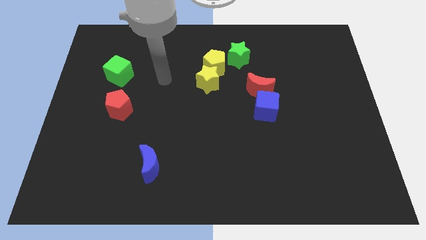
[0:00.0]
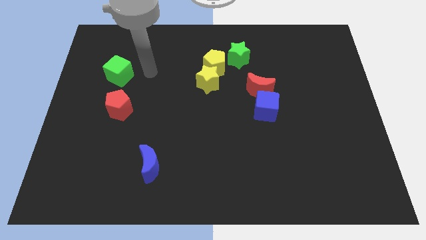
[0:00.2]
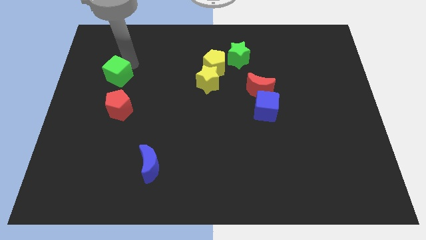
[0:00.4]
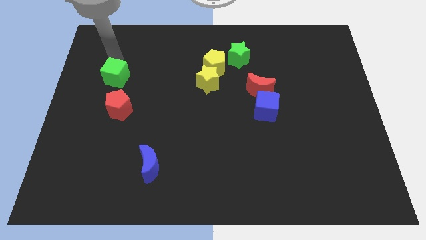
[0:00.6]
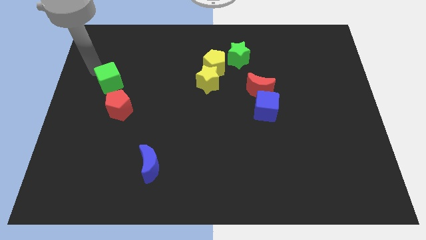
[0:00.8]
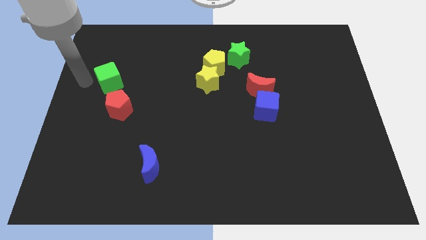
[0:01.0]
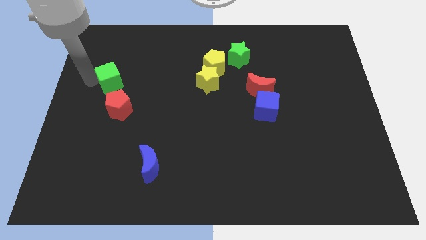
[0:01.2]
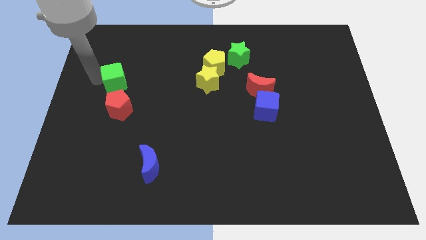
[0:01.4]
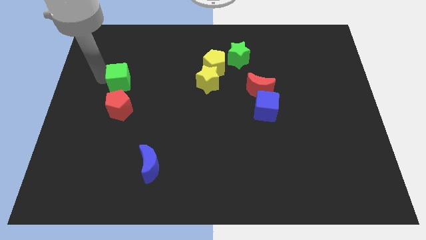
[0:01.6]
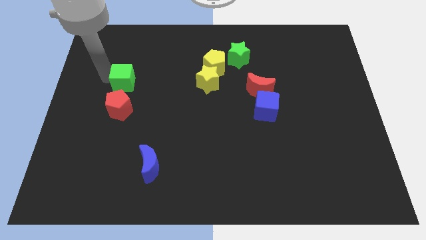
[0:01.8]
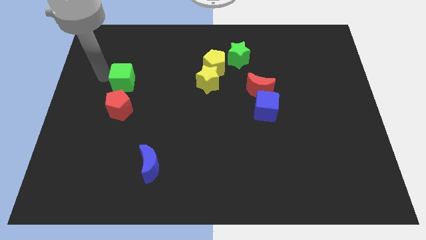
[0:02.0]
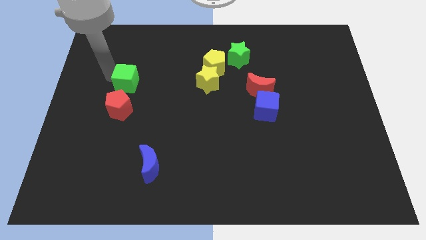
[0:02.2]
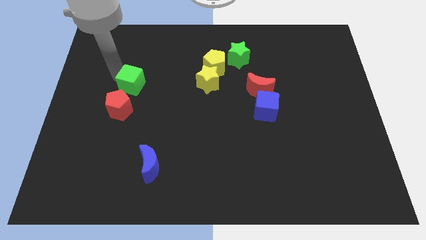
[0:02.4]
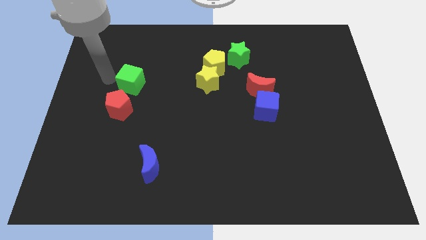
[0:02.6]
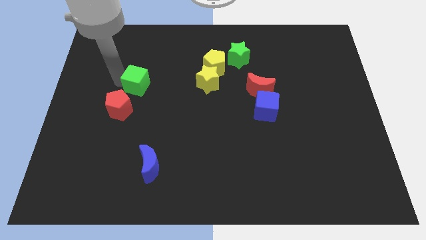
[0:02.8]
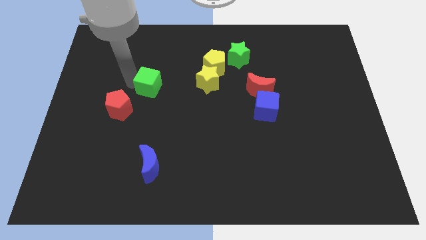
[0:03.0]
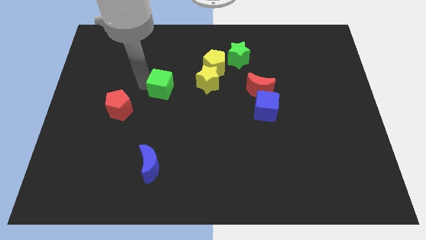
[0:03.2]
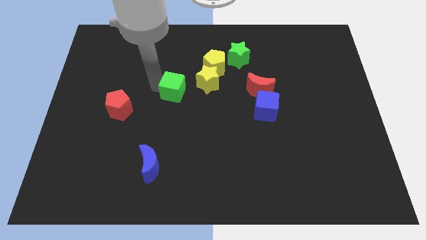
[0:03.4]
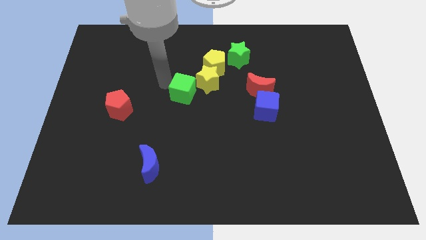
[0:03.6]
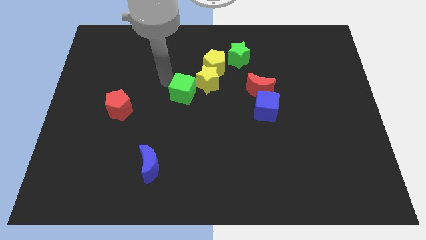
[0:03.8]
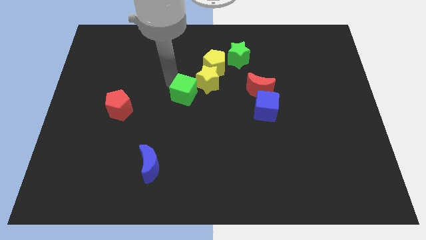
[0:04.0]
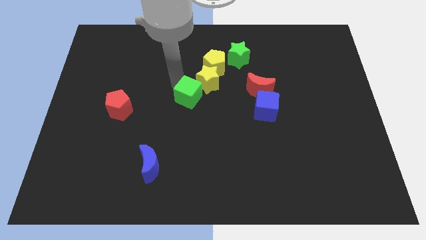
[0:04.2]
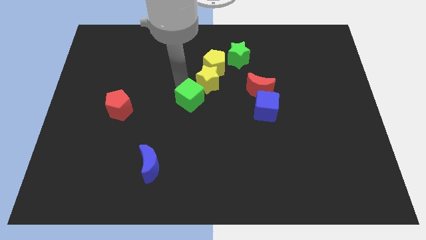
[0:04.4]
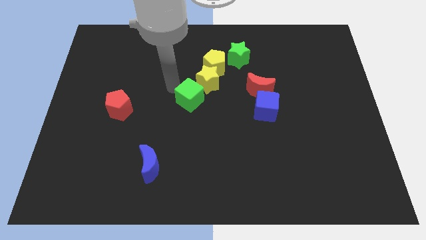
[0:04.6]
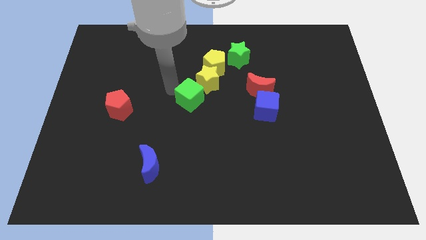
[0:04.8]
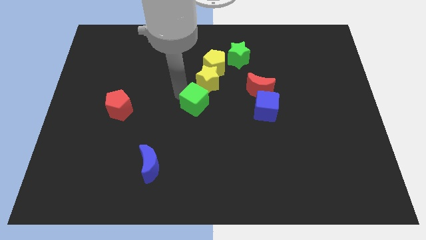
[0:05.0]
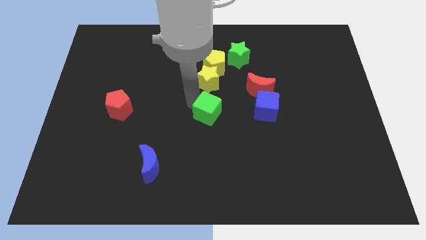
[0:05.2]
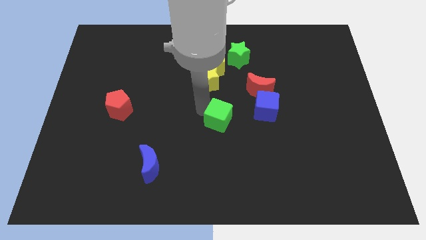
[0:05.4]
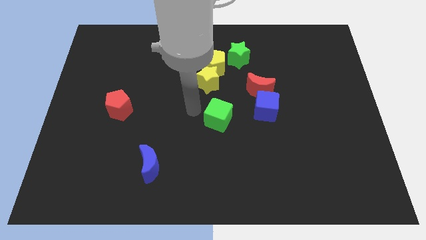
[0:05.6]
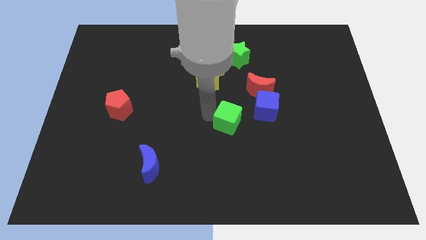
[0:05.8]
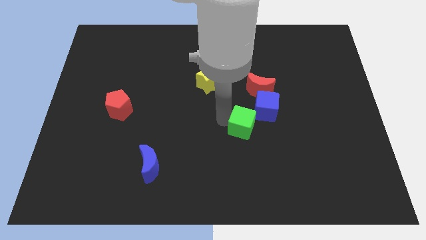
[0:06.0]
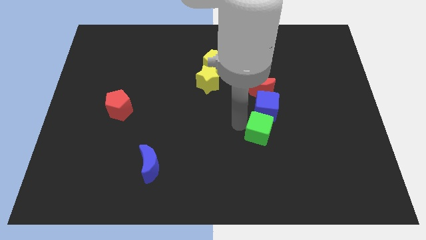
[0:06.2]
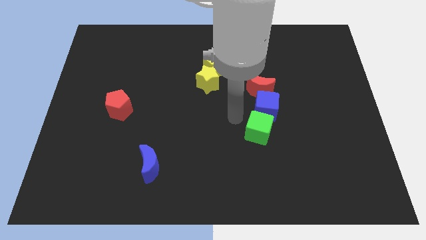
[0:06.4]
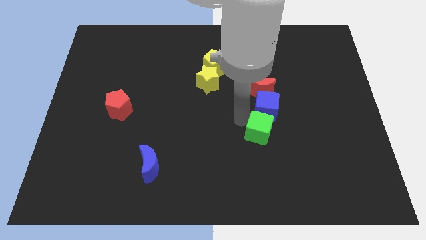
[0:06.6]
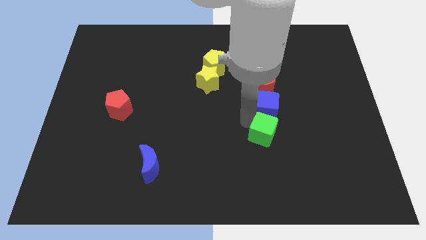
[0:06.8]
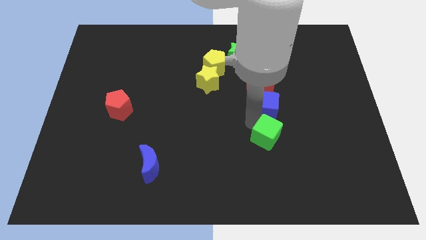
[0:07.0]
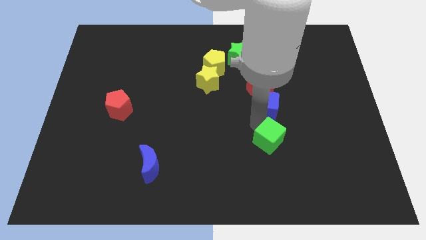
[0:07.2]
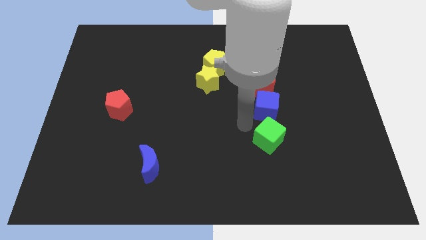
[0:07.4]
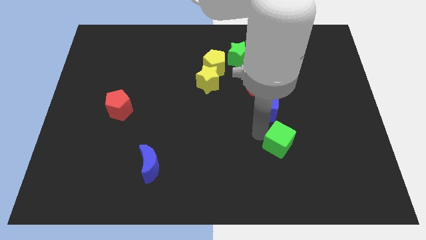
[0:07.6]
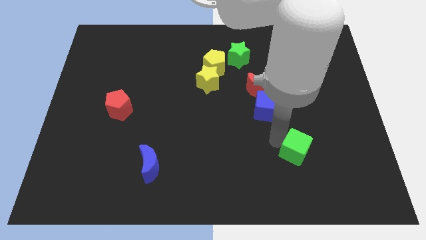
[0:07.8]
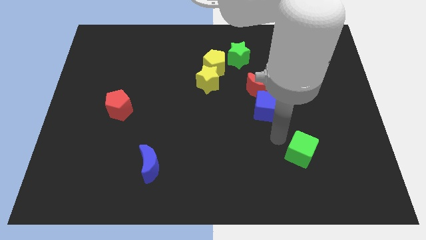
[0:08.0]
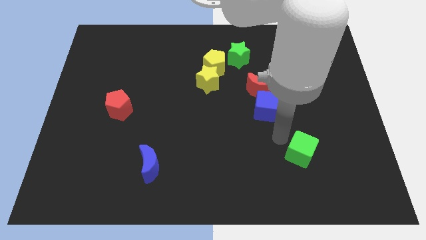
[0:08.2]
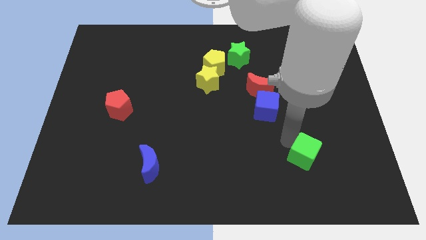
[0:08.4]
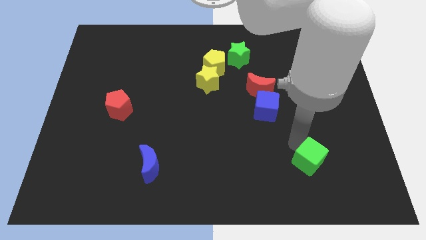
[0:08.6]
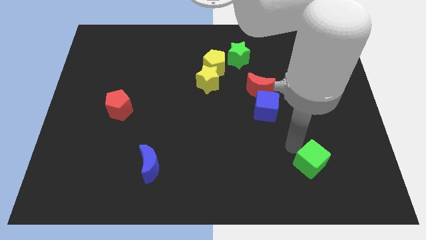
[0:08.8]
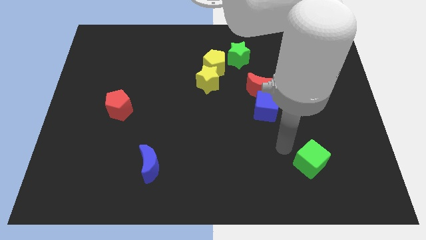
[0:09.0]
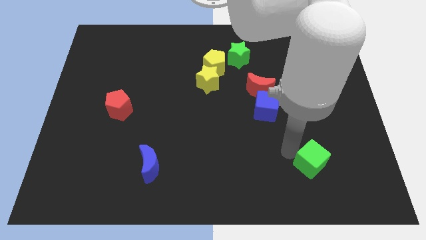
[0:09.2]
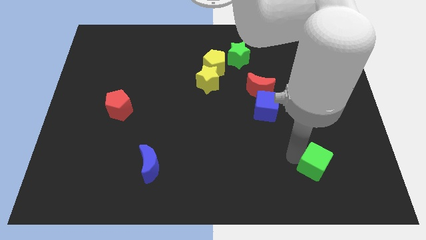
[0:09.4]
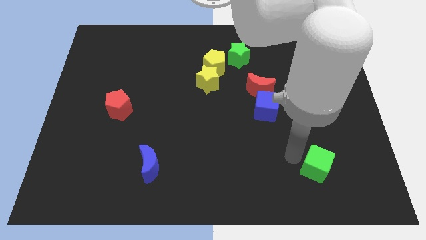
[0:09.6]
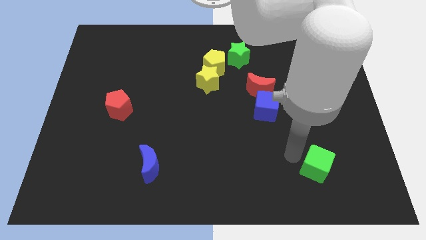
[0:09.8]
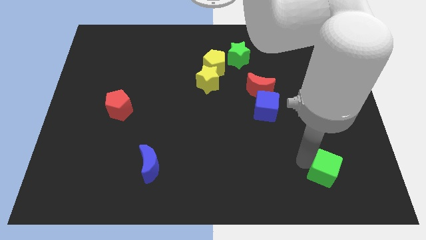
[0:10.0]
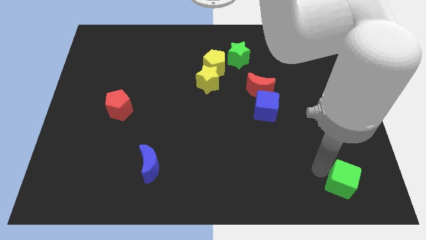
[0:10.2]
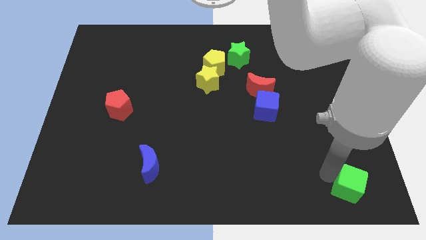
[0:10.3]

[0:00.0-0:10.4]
move the green cube to the lower right corner

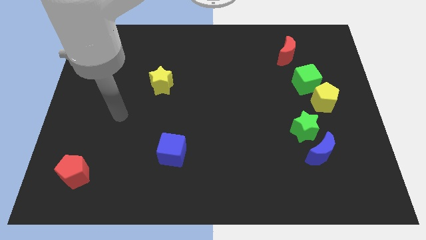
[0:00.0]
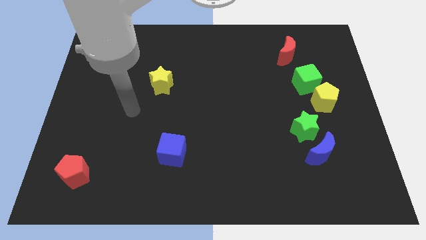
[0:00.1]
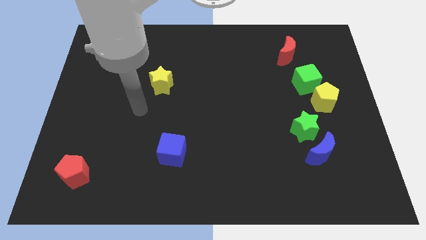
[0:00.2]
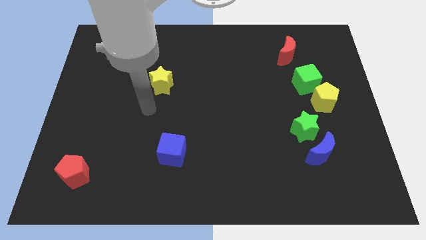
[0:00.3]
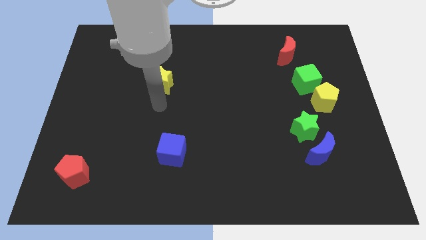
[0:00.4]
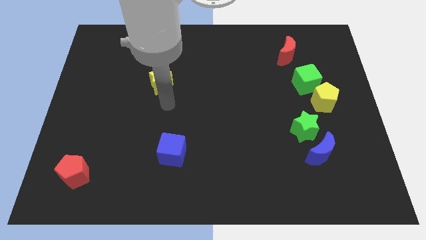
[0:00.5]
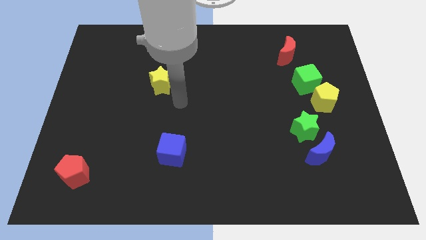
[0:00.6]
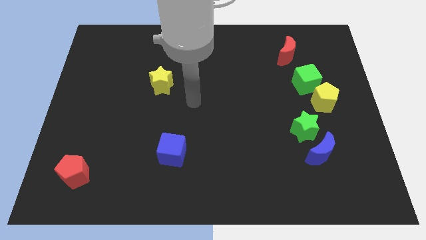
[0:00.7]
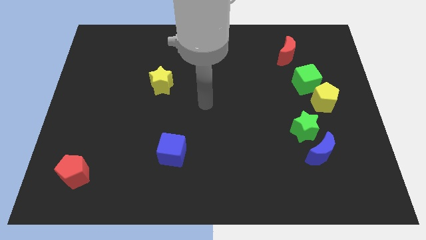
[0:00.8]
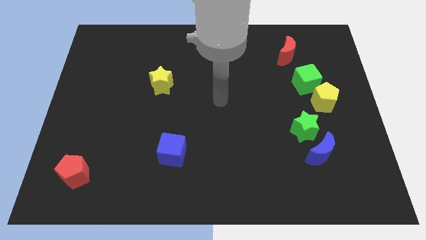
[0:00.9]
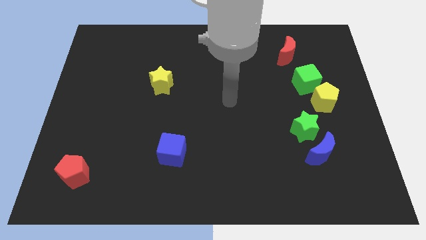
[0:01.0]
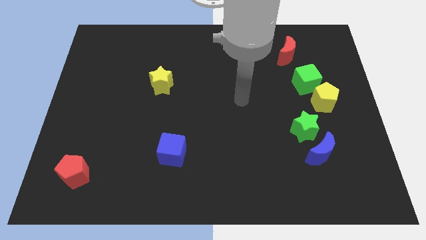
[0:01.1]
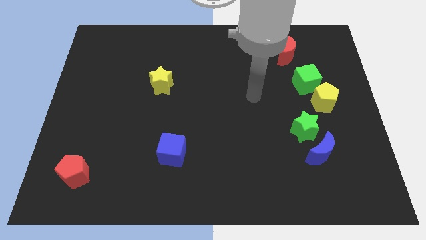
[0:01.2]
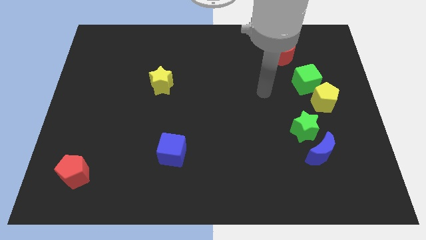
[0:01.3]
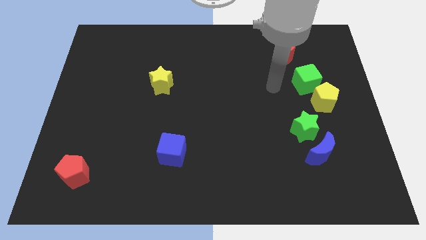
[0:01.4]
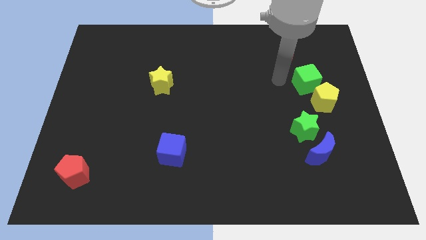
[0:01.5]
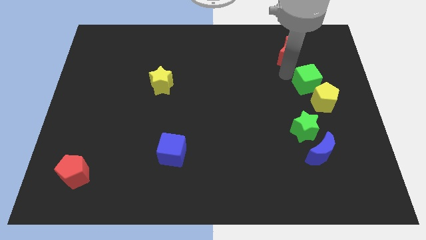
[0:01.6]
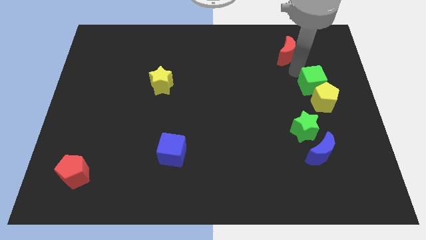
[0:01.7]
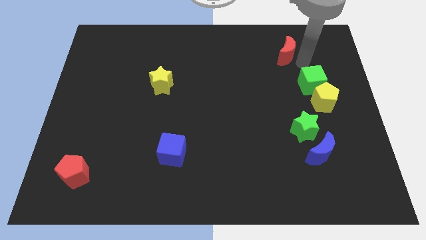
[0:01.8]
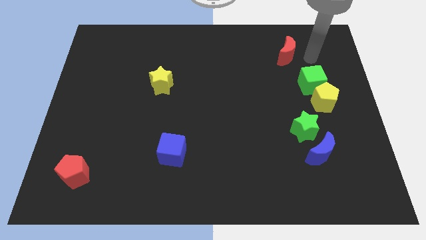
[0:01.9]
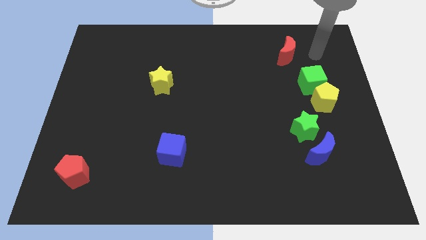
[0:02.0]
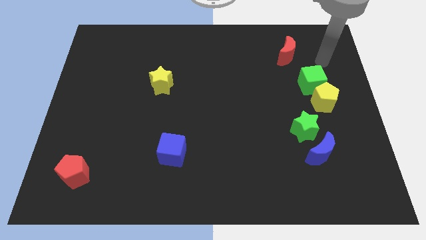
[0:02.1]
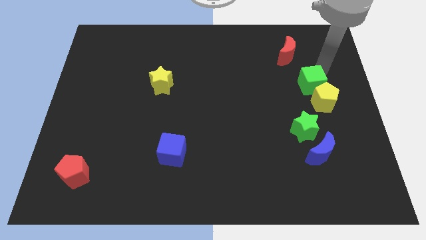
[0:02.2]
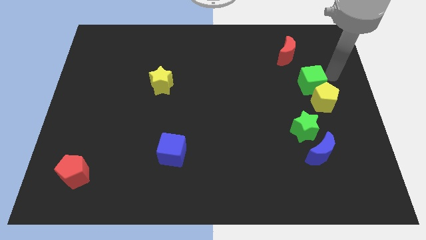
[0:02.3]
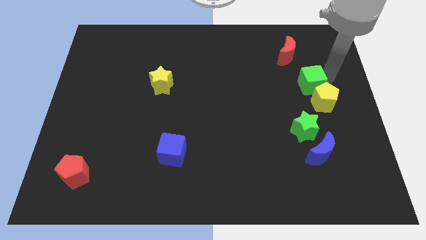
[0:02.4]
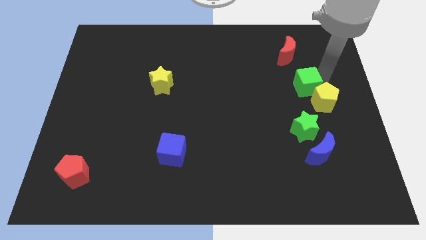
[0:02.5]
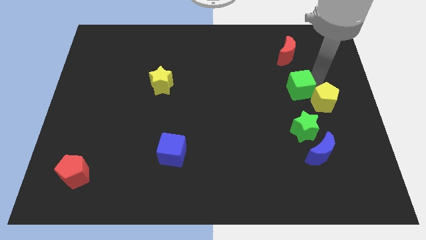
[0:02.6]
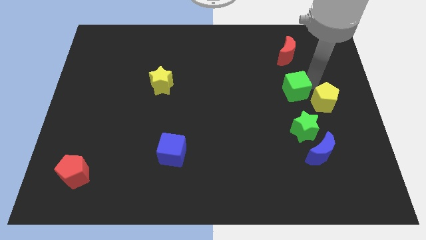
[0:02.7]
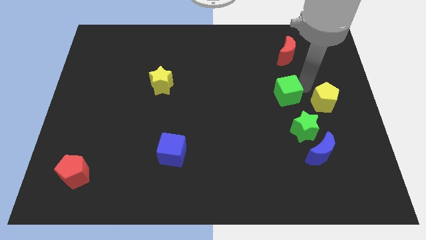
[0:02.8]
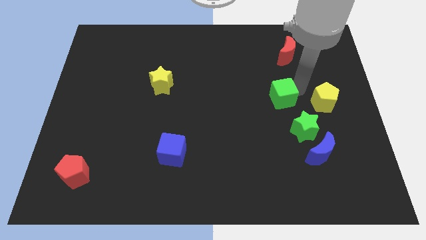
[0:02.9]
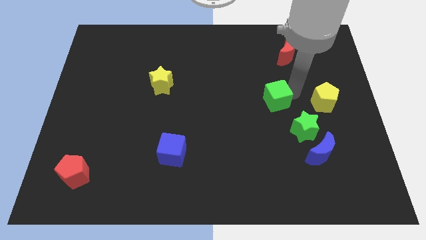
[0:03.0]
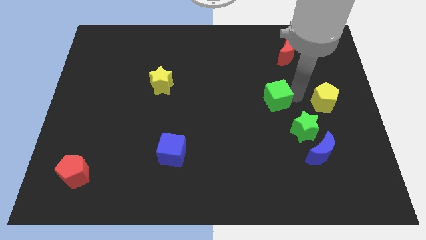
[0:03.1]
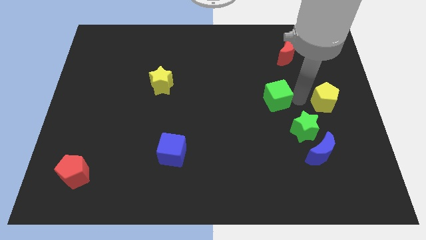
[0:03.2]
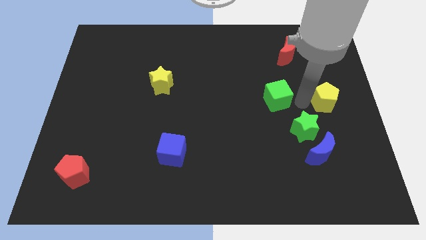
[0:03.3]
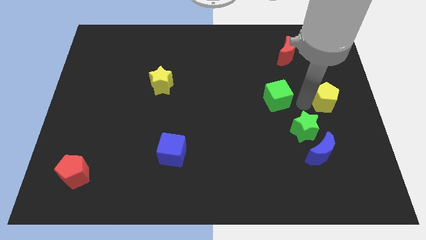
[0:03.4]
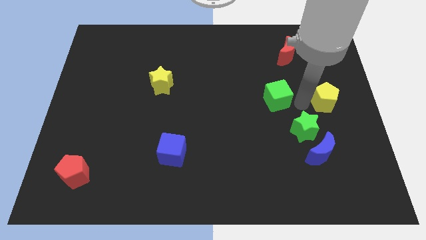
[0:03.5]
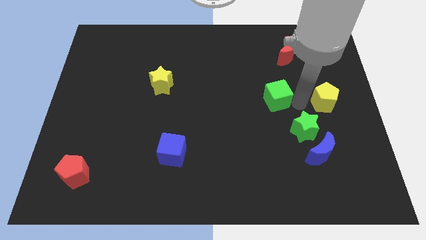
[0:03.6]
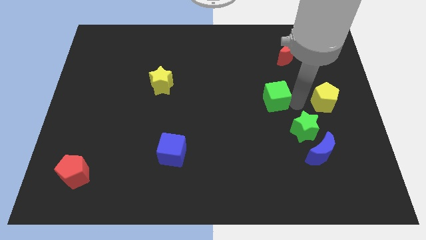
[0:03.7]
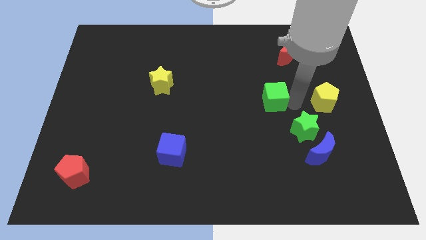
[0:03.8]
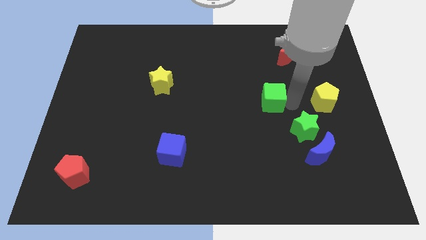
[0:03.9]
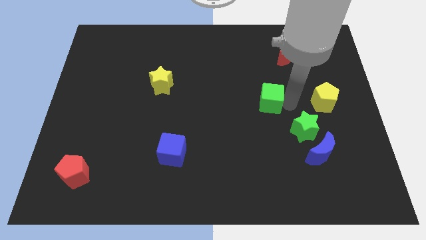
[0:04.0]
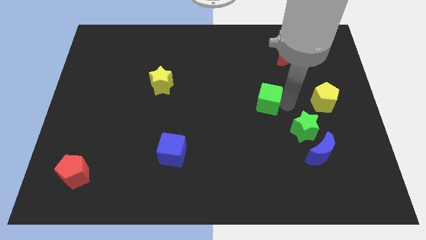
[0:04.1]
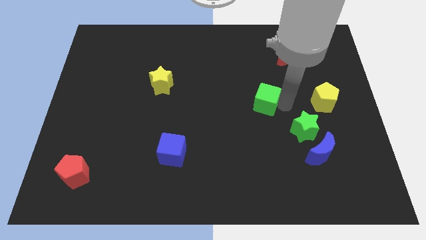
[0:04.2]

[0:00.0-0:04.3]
slide the green cube to the center
